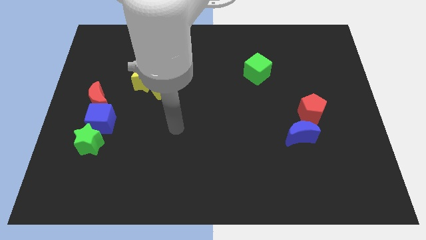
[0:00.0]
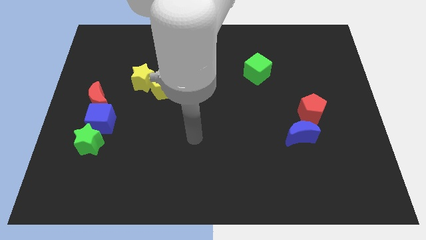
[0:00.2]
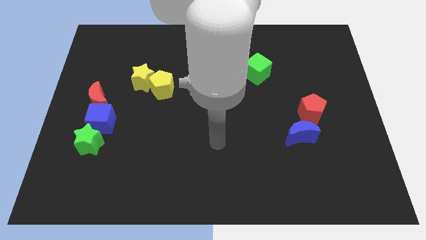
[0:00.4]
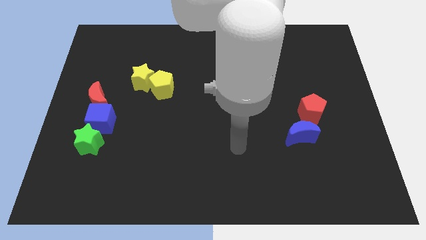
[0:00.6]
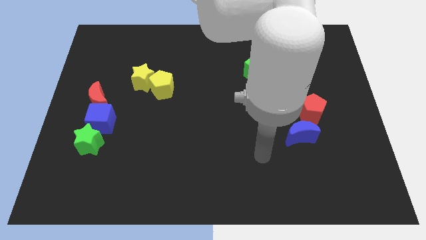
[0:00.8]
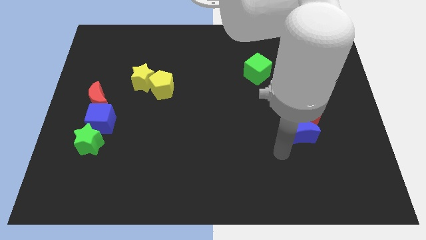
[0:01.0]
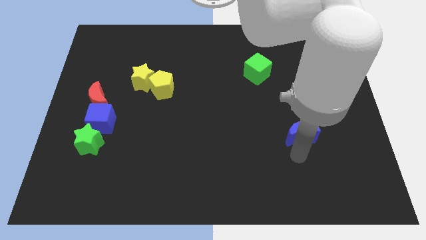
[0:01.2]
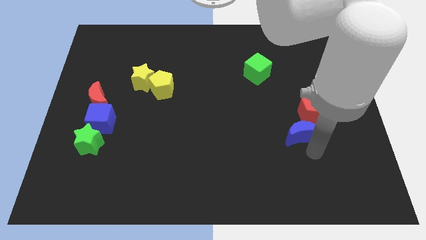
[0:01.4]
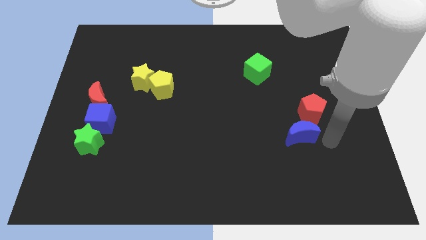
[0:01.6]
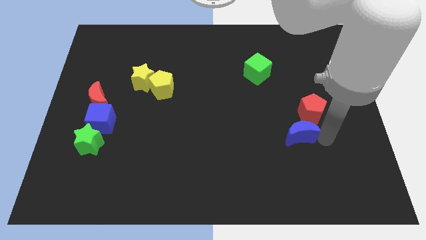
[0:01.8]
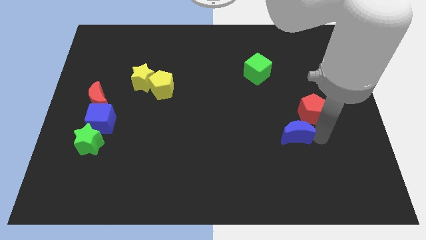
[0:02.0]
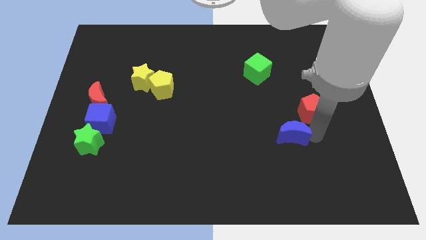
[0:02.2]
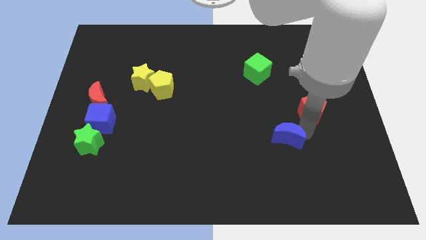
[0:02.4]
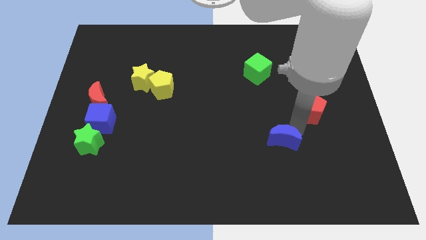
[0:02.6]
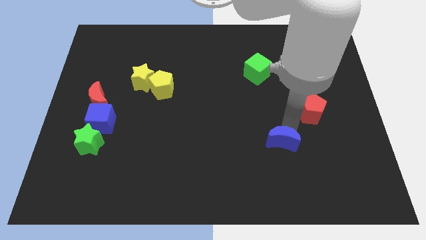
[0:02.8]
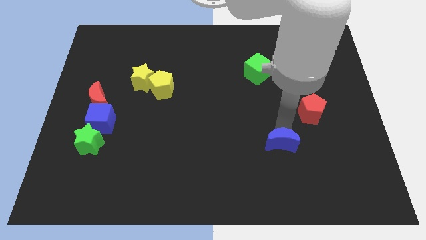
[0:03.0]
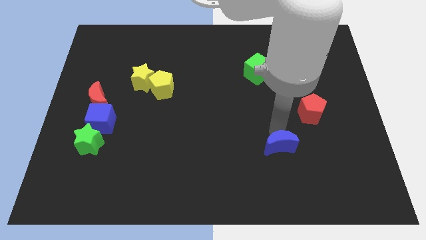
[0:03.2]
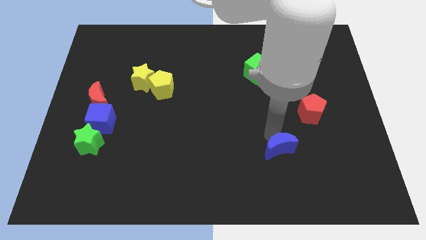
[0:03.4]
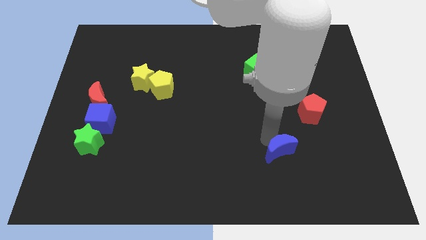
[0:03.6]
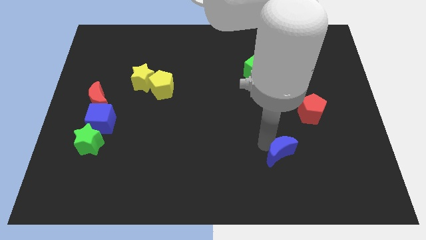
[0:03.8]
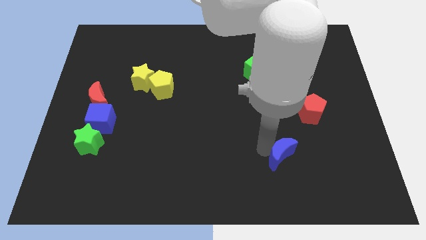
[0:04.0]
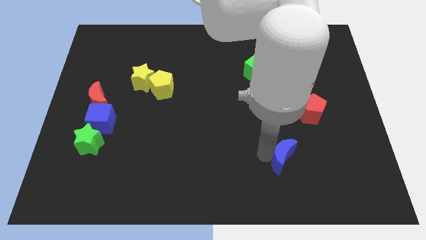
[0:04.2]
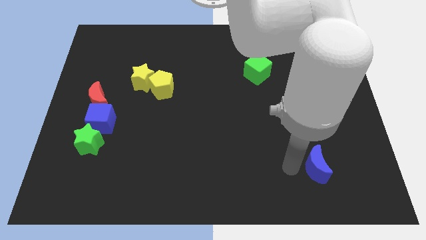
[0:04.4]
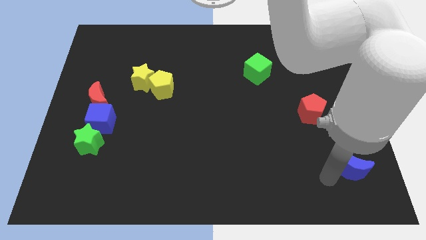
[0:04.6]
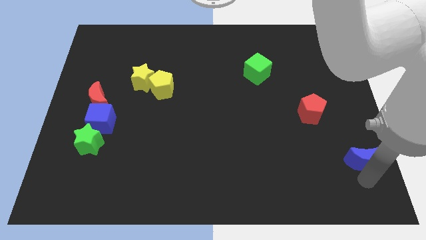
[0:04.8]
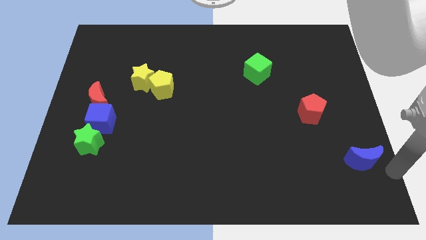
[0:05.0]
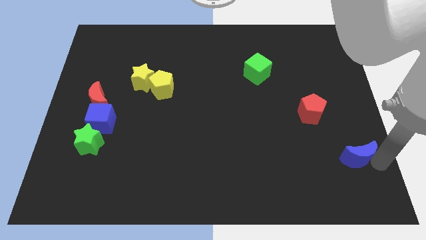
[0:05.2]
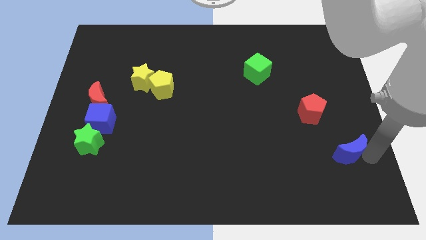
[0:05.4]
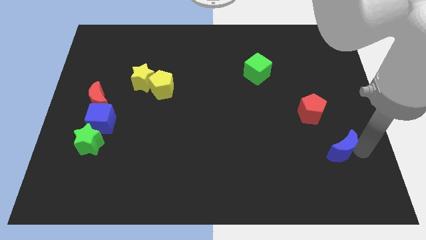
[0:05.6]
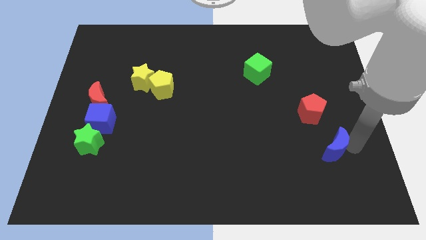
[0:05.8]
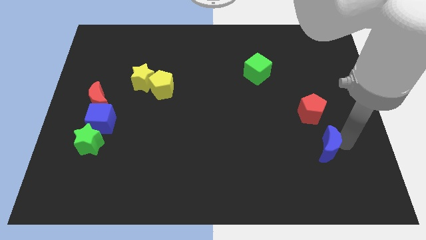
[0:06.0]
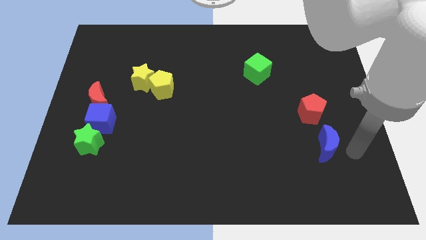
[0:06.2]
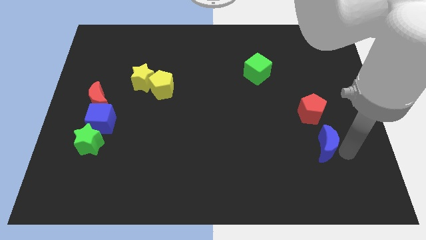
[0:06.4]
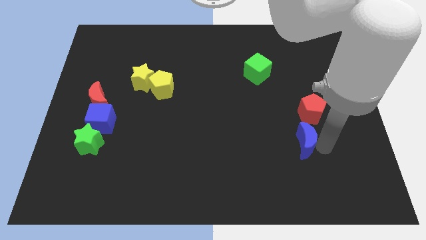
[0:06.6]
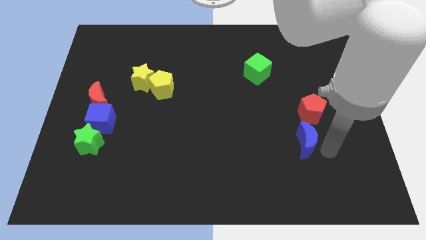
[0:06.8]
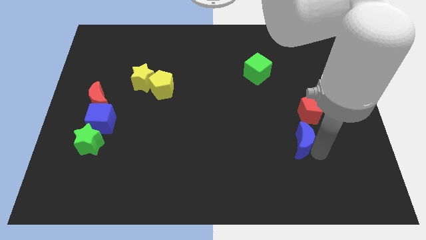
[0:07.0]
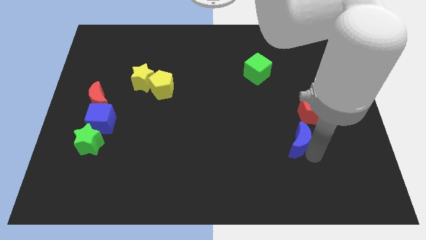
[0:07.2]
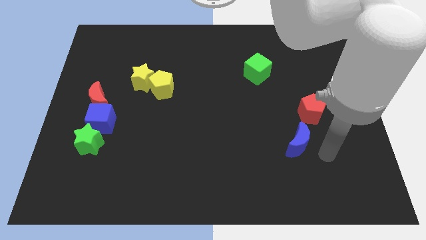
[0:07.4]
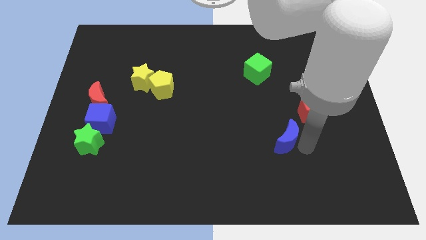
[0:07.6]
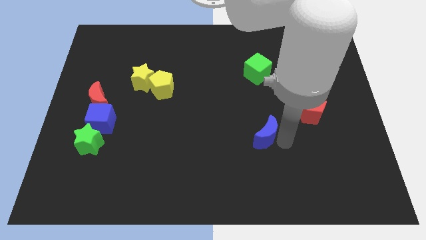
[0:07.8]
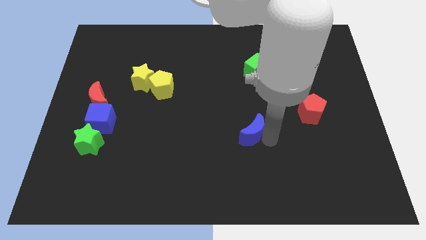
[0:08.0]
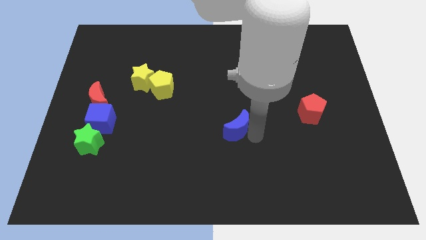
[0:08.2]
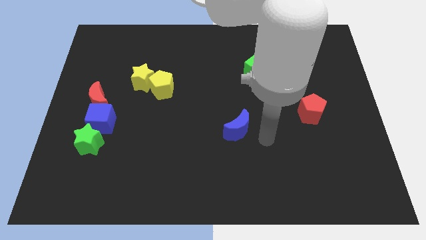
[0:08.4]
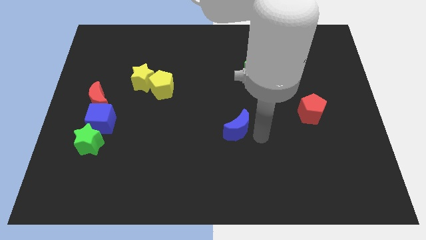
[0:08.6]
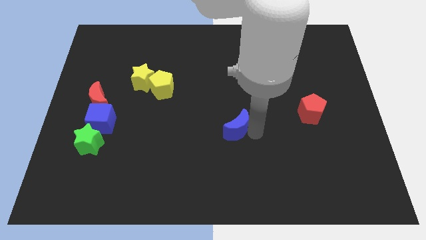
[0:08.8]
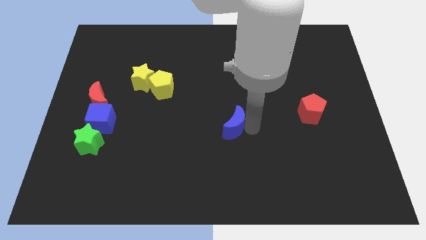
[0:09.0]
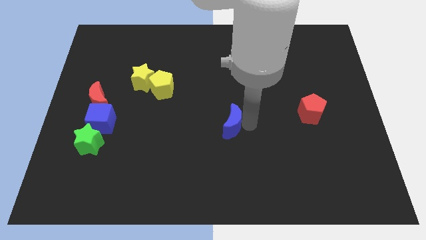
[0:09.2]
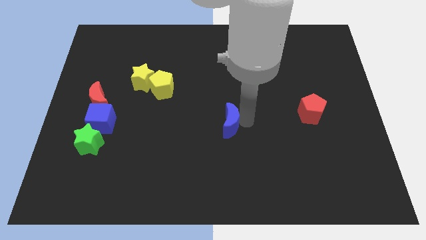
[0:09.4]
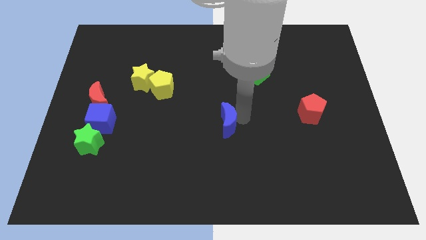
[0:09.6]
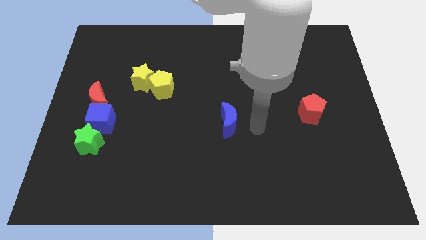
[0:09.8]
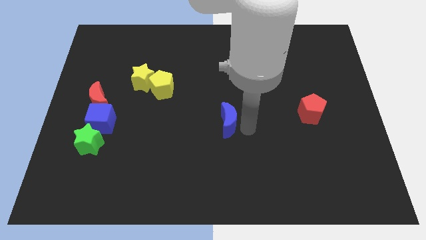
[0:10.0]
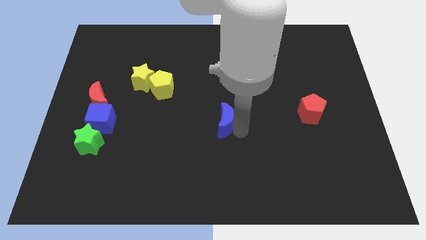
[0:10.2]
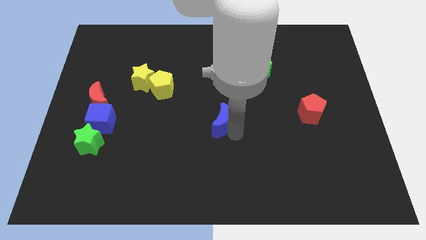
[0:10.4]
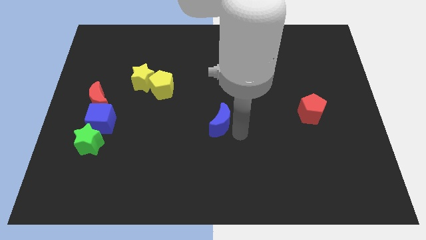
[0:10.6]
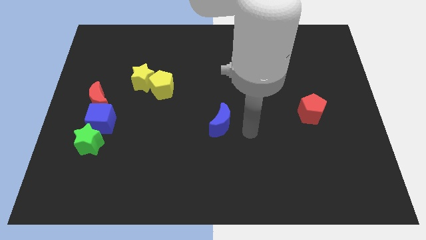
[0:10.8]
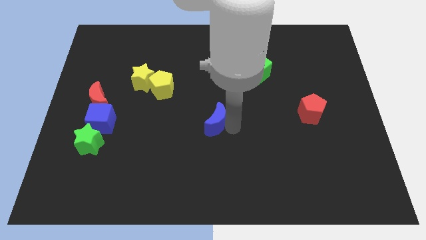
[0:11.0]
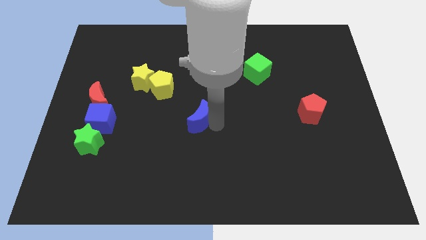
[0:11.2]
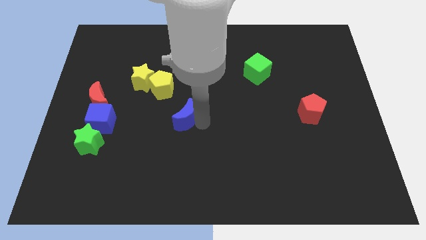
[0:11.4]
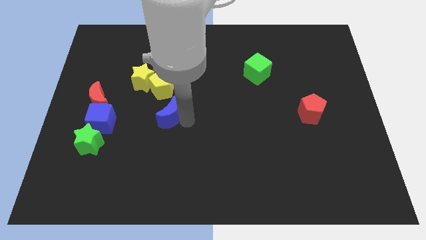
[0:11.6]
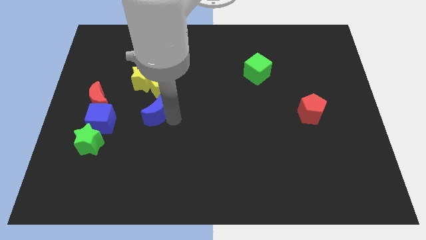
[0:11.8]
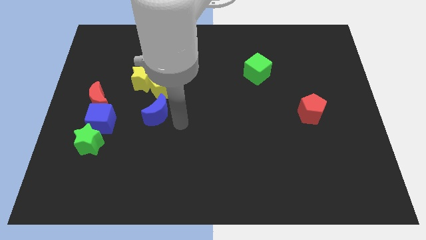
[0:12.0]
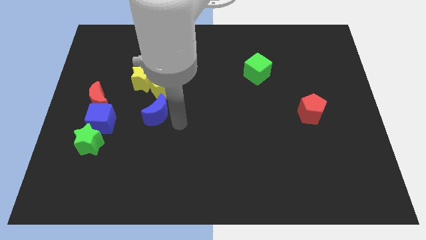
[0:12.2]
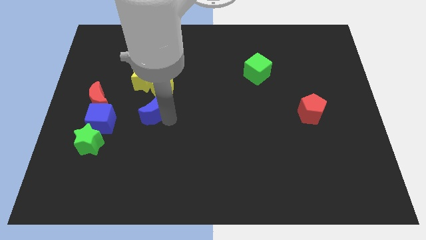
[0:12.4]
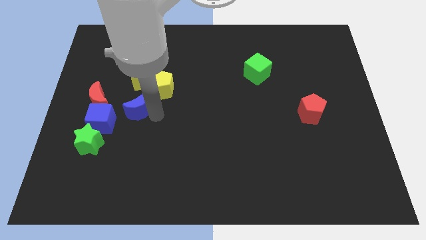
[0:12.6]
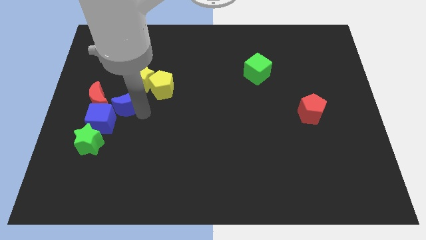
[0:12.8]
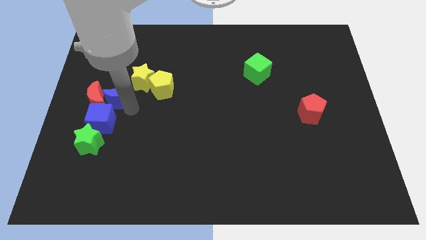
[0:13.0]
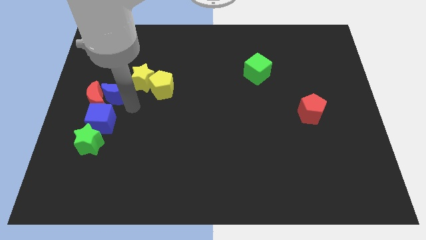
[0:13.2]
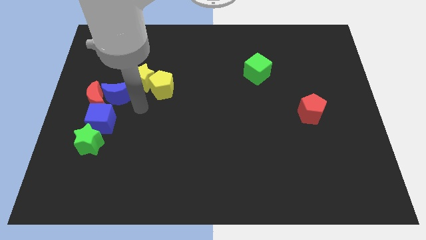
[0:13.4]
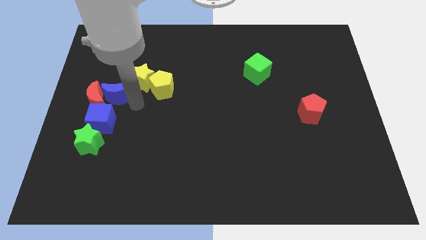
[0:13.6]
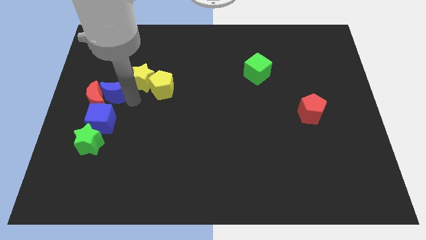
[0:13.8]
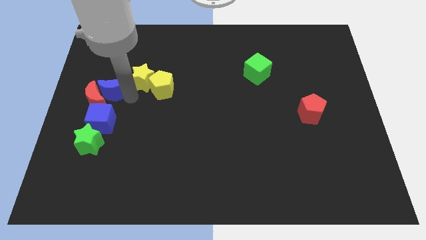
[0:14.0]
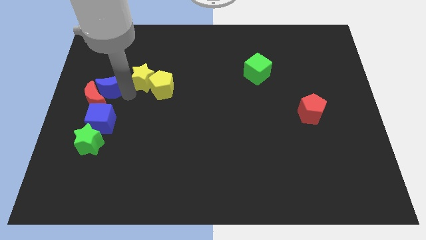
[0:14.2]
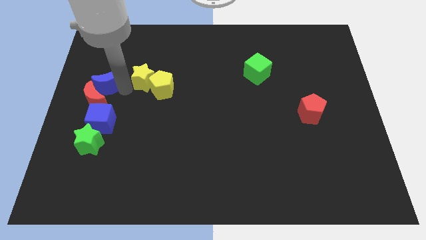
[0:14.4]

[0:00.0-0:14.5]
push the blue moon to the center left
